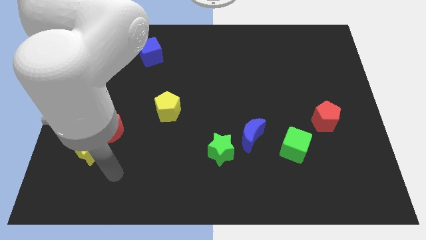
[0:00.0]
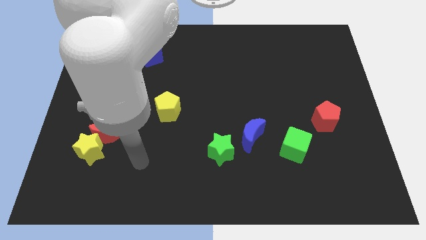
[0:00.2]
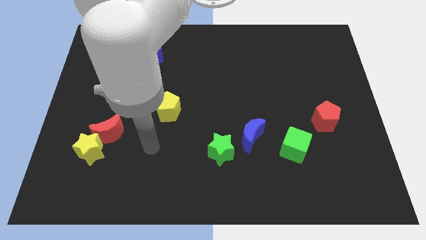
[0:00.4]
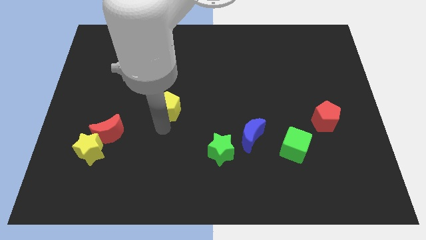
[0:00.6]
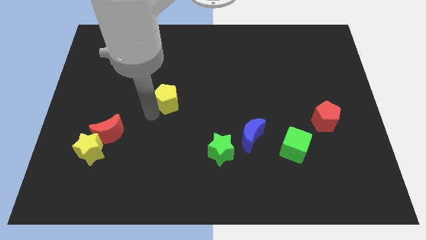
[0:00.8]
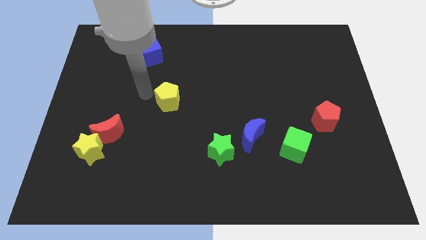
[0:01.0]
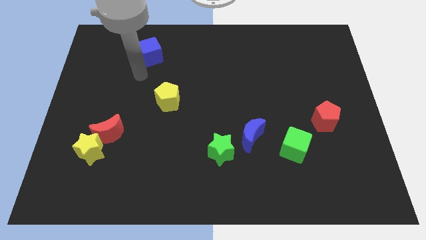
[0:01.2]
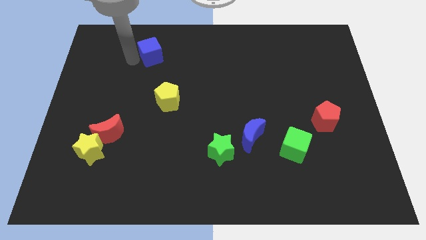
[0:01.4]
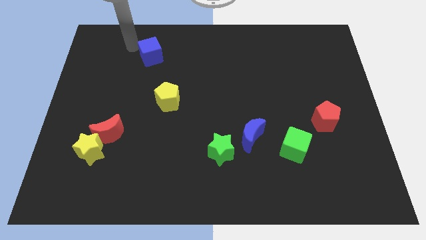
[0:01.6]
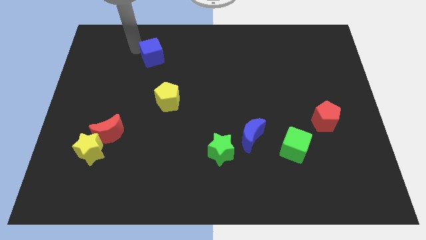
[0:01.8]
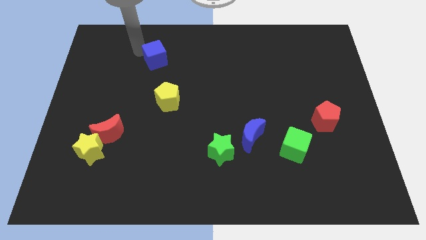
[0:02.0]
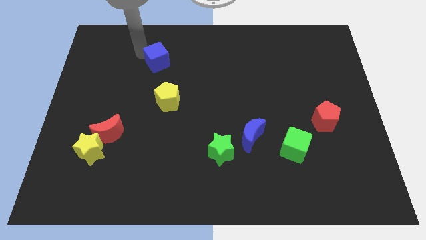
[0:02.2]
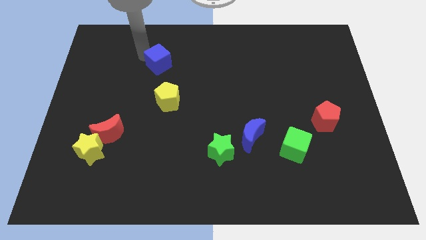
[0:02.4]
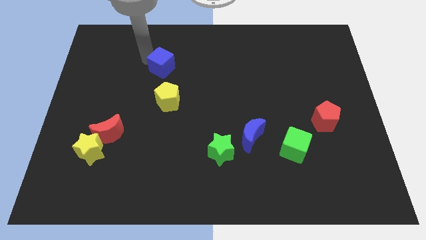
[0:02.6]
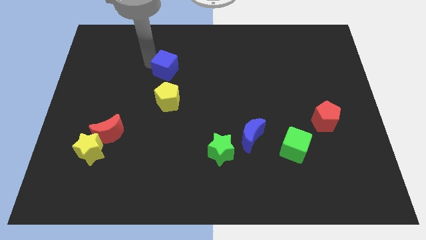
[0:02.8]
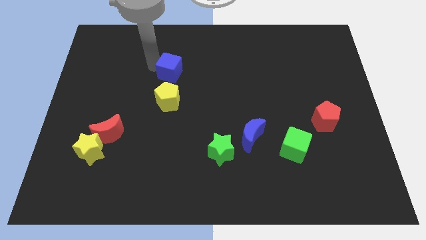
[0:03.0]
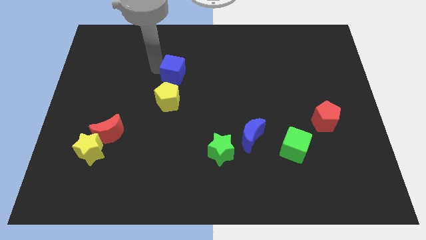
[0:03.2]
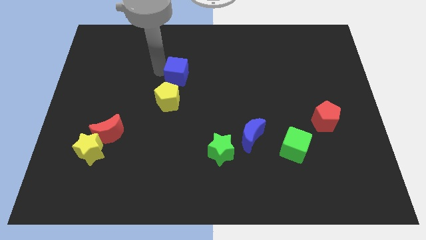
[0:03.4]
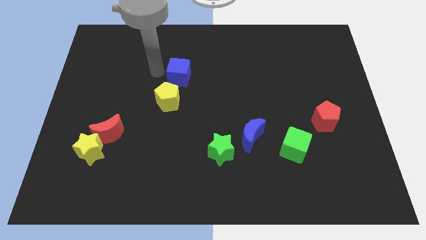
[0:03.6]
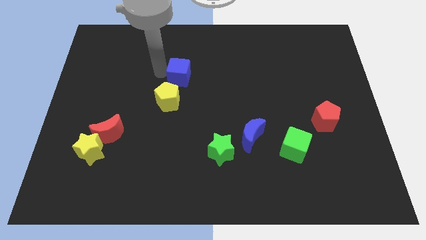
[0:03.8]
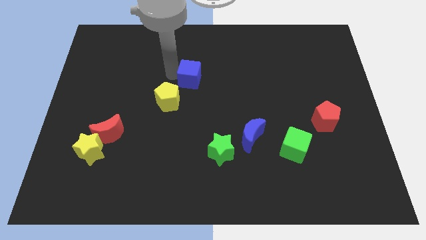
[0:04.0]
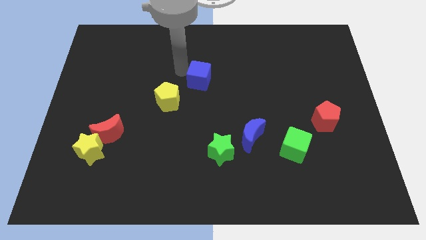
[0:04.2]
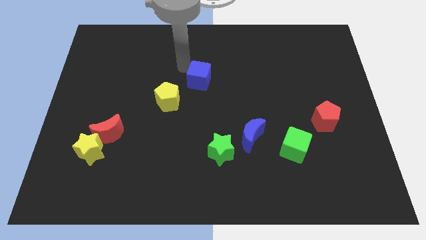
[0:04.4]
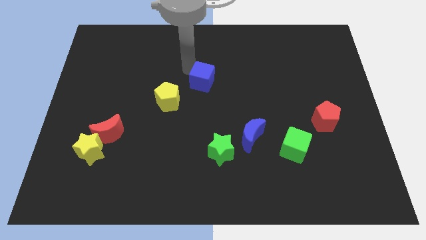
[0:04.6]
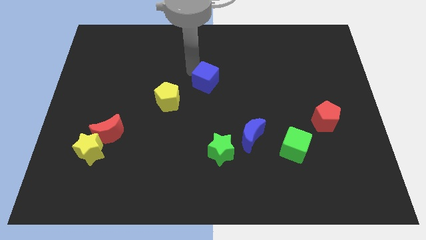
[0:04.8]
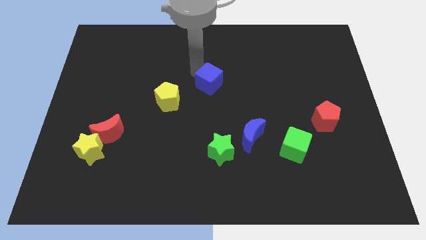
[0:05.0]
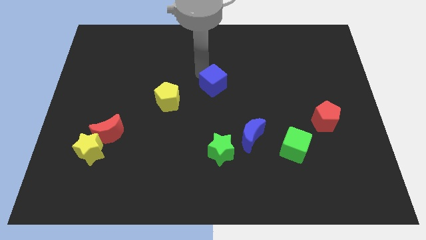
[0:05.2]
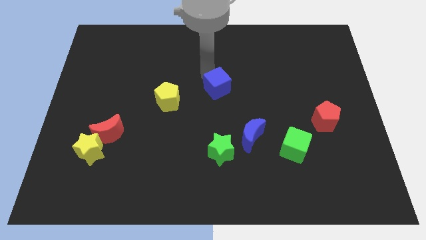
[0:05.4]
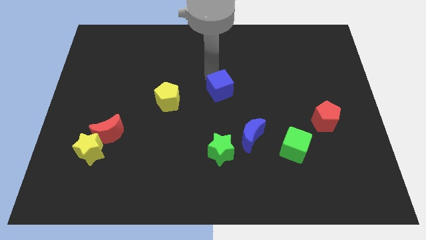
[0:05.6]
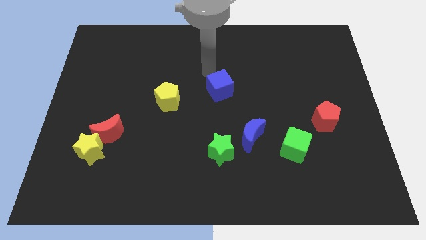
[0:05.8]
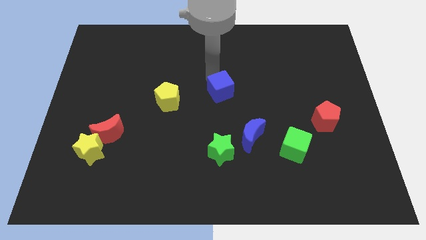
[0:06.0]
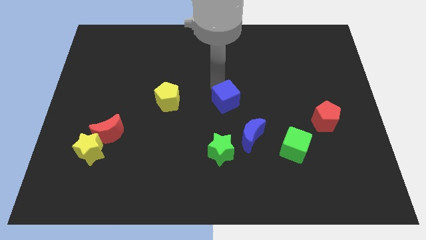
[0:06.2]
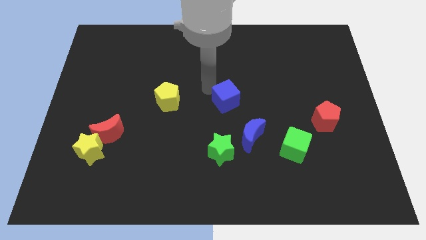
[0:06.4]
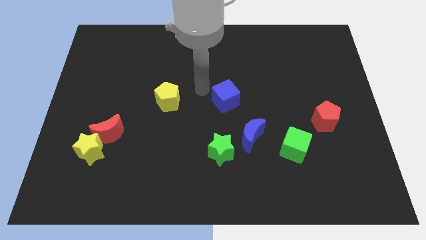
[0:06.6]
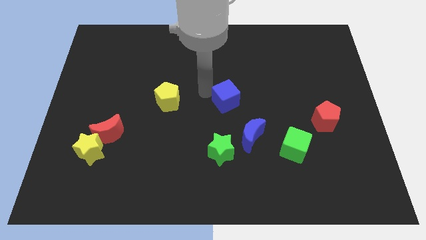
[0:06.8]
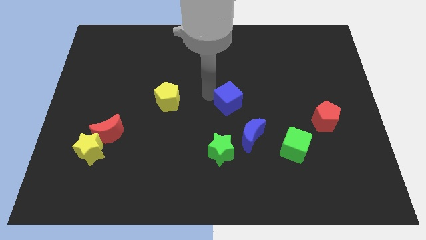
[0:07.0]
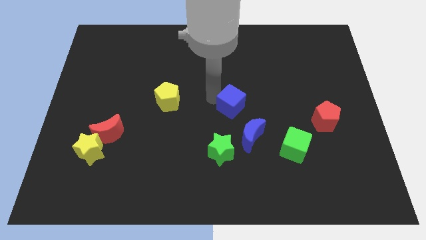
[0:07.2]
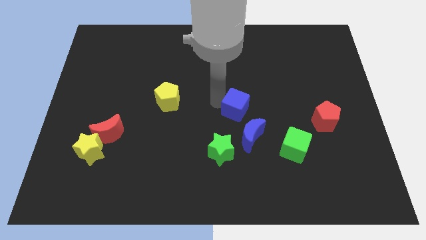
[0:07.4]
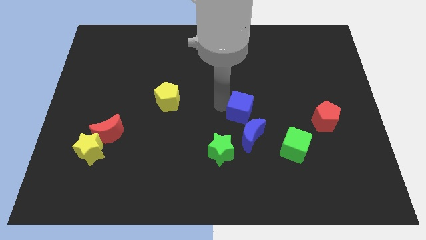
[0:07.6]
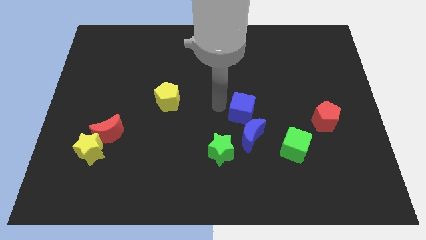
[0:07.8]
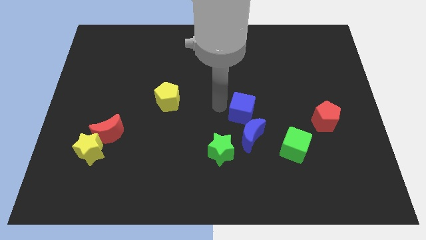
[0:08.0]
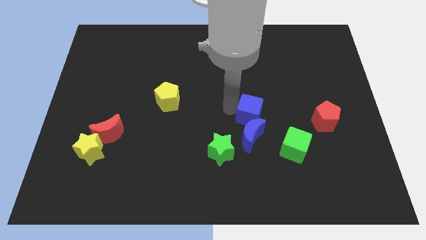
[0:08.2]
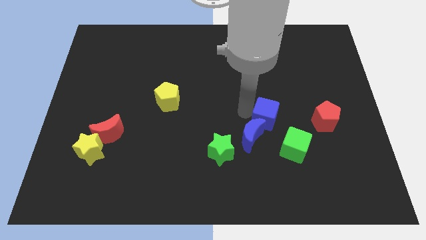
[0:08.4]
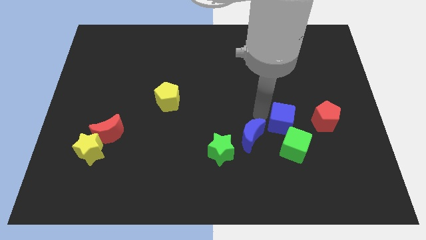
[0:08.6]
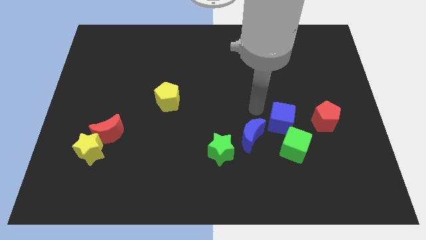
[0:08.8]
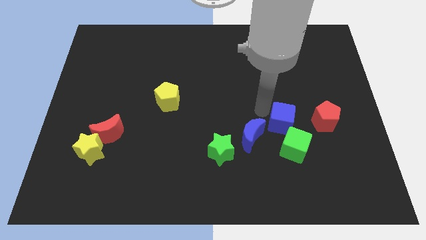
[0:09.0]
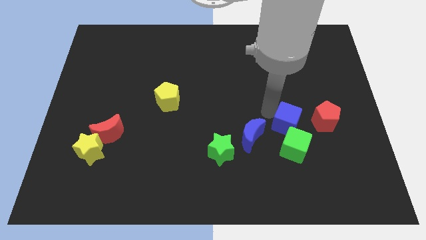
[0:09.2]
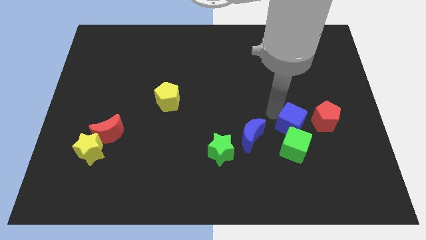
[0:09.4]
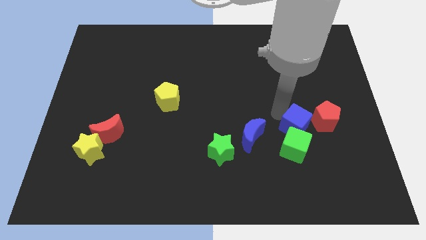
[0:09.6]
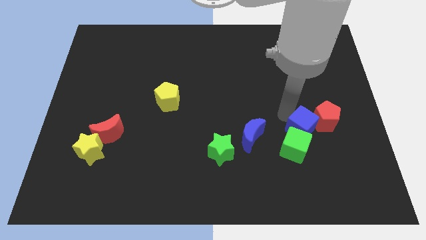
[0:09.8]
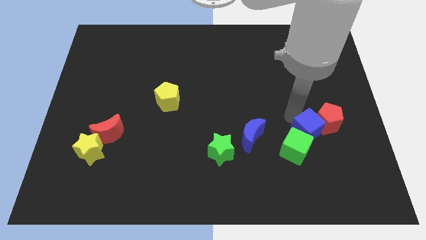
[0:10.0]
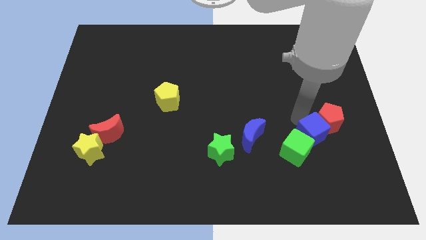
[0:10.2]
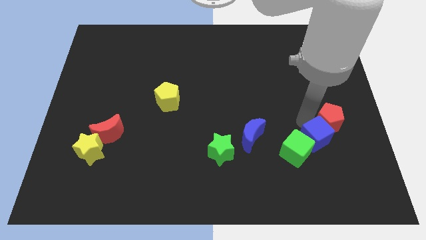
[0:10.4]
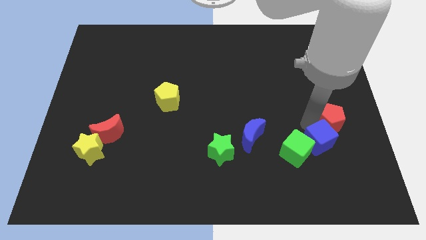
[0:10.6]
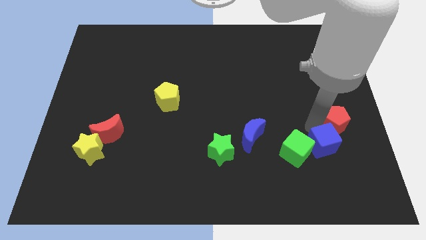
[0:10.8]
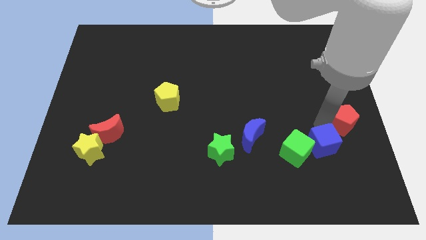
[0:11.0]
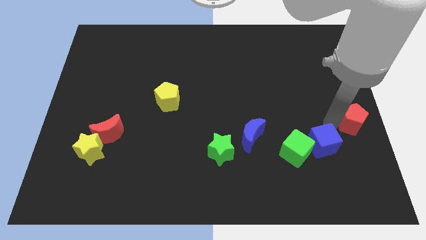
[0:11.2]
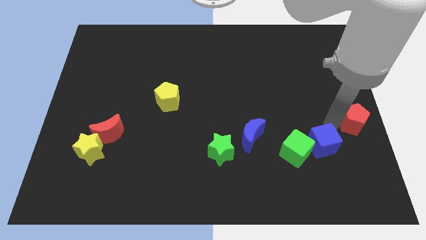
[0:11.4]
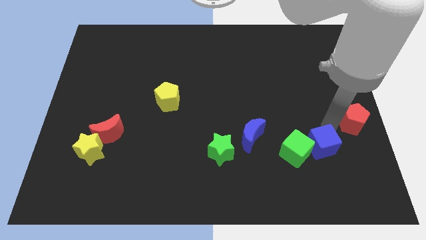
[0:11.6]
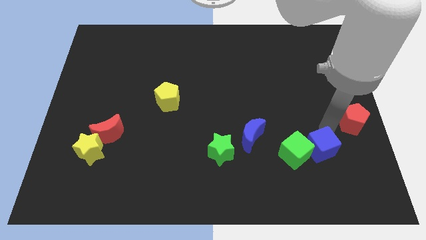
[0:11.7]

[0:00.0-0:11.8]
move the blue cube to the bottom right of the green cube

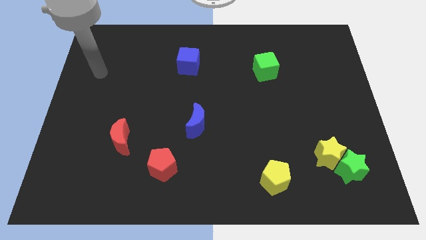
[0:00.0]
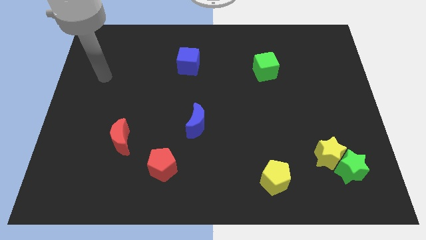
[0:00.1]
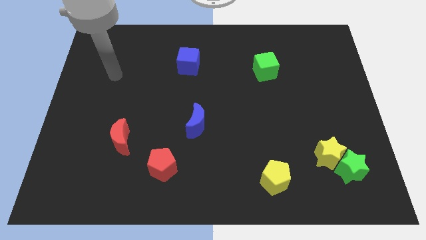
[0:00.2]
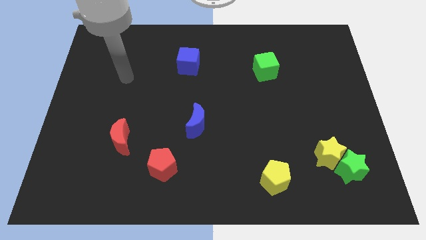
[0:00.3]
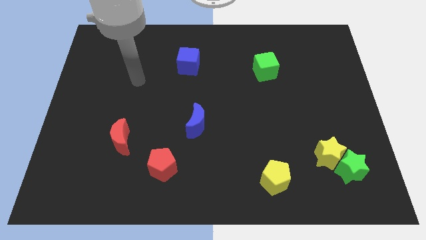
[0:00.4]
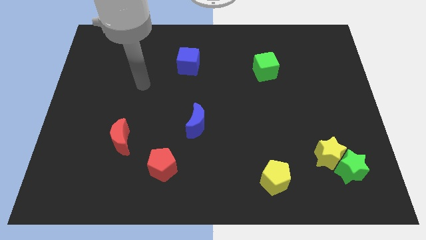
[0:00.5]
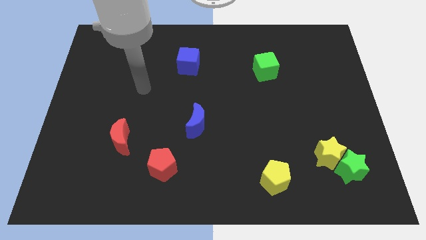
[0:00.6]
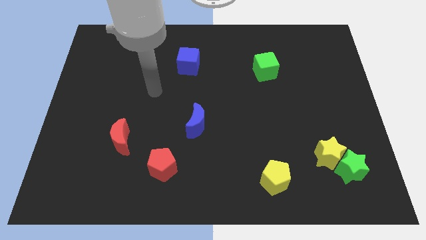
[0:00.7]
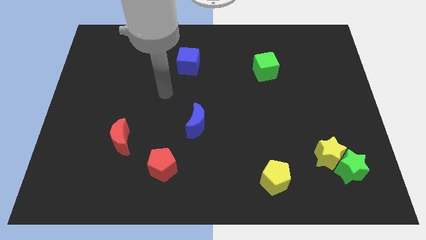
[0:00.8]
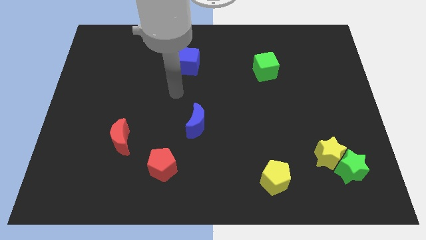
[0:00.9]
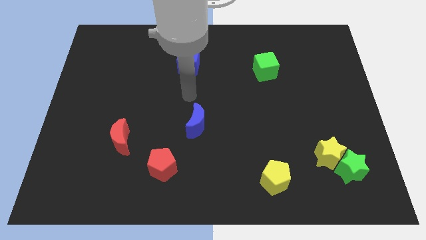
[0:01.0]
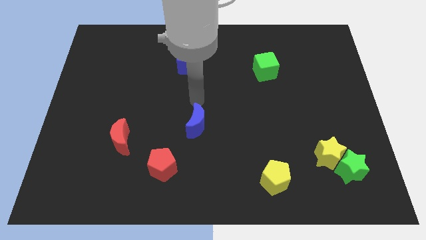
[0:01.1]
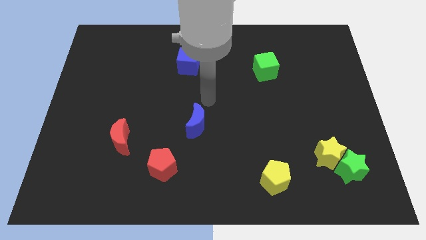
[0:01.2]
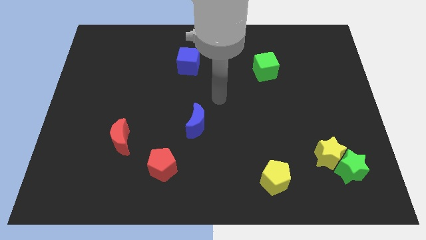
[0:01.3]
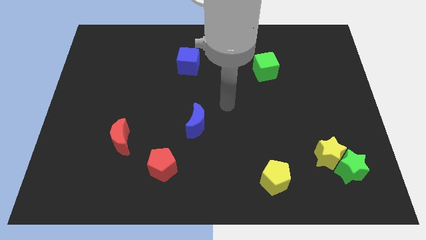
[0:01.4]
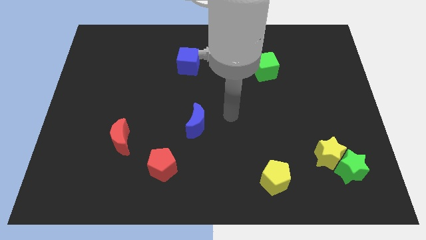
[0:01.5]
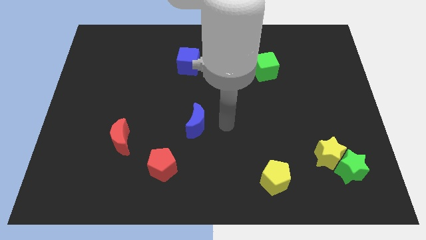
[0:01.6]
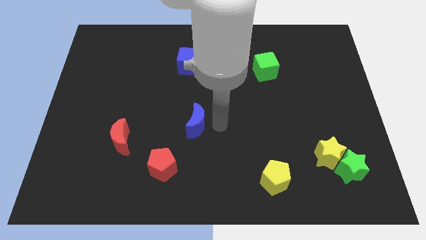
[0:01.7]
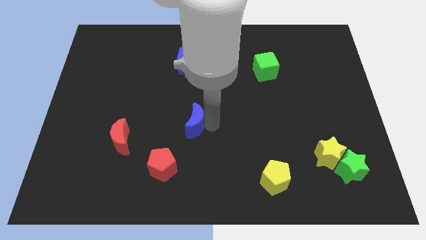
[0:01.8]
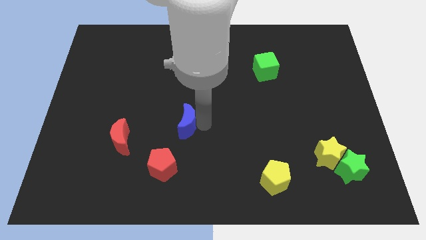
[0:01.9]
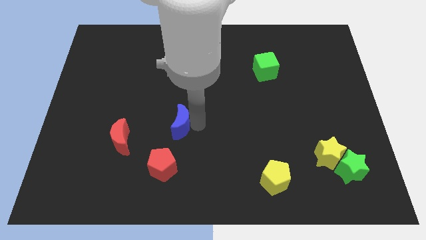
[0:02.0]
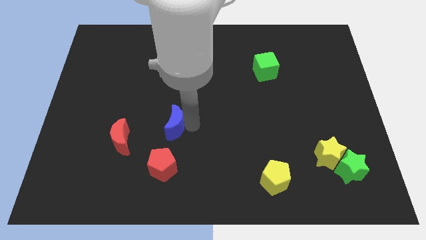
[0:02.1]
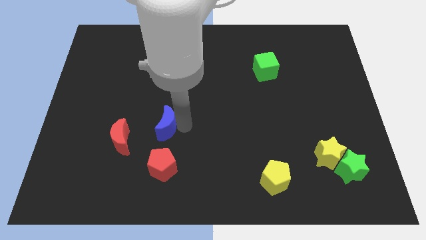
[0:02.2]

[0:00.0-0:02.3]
push the blue moon to the top right of the red moon
